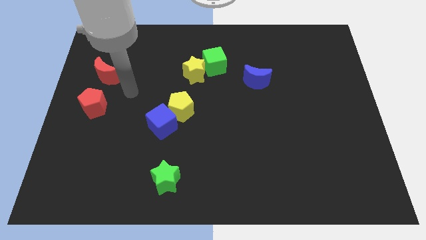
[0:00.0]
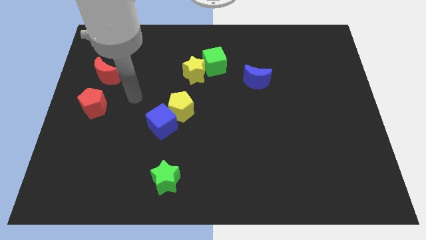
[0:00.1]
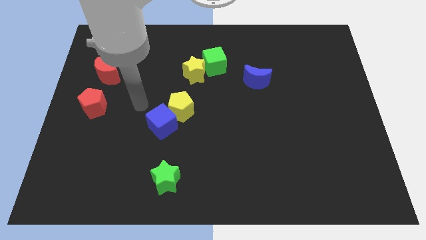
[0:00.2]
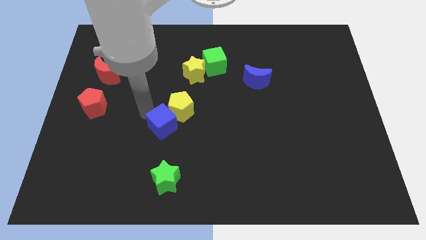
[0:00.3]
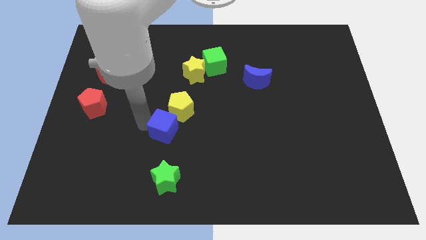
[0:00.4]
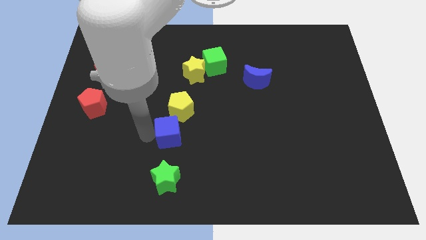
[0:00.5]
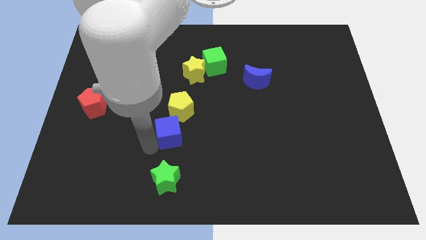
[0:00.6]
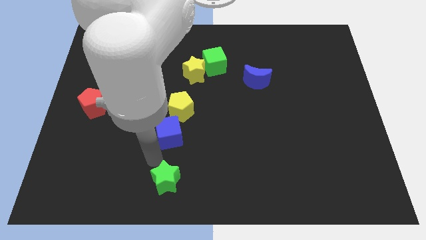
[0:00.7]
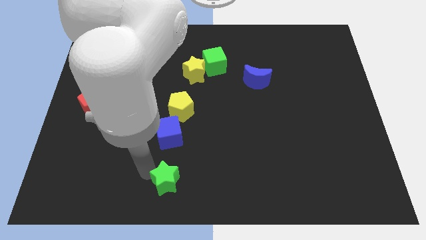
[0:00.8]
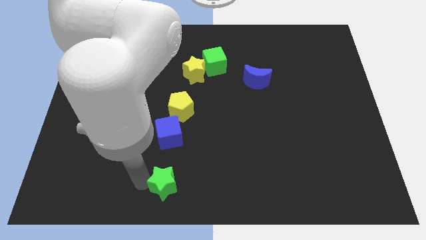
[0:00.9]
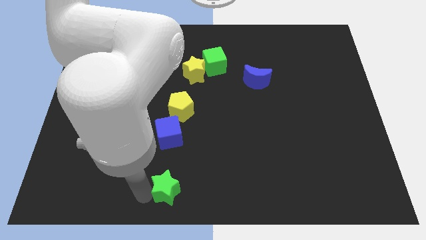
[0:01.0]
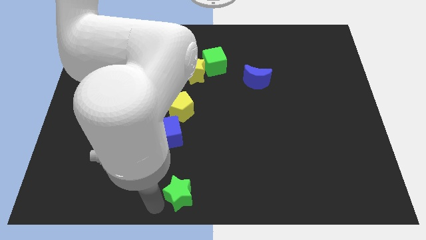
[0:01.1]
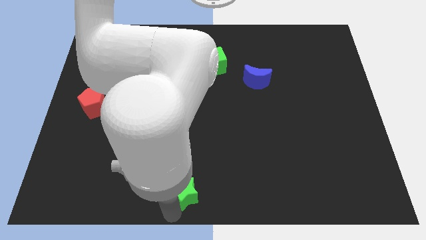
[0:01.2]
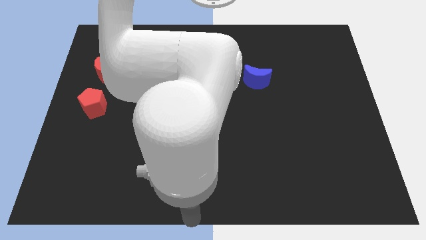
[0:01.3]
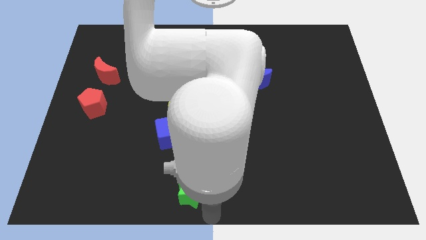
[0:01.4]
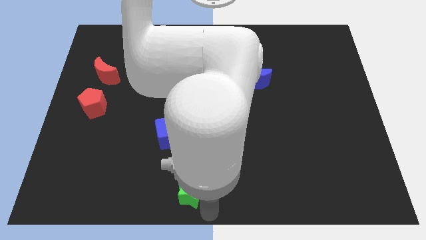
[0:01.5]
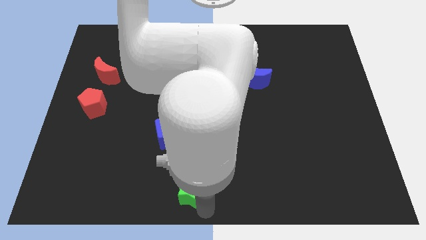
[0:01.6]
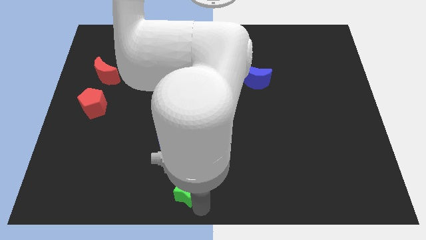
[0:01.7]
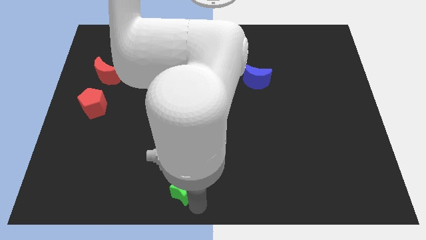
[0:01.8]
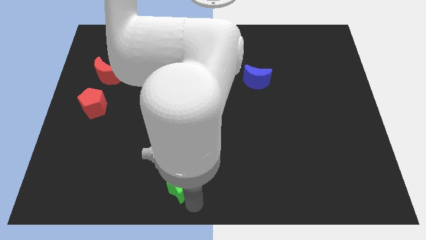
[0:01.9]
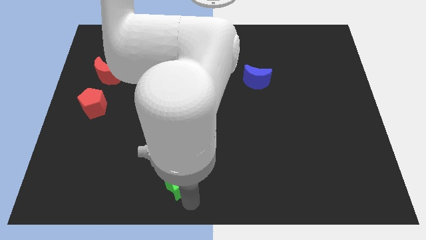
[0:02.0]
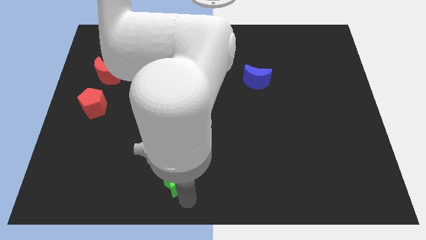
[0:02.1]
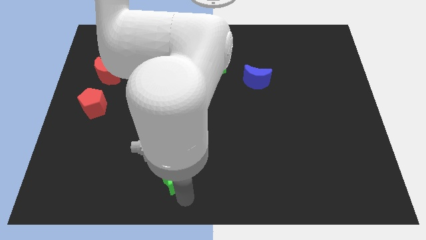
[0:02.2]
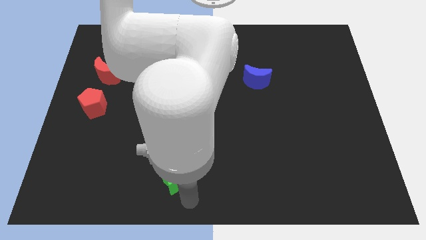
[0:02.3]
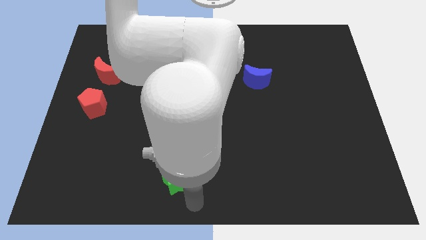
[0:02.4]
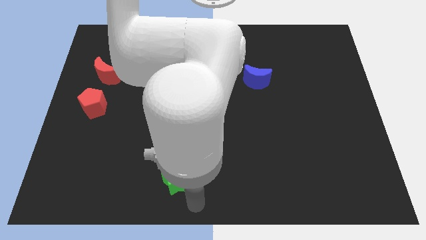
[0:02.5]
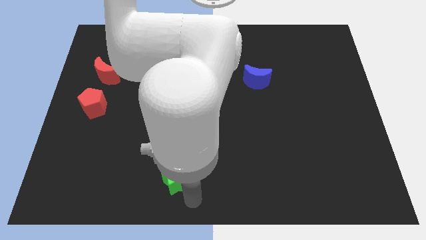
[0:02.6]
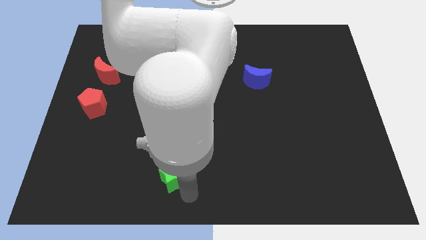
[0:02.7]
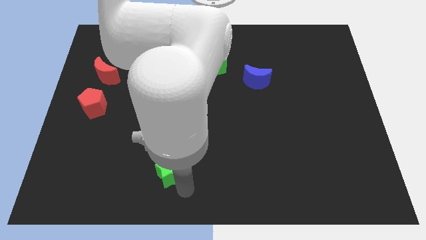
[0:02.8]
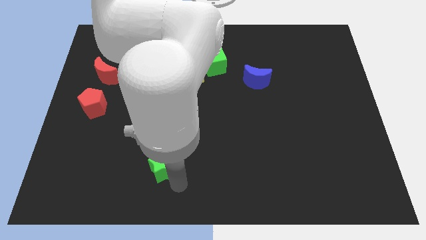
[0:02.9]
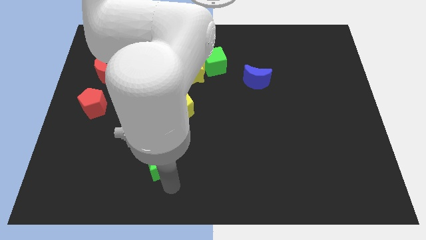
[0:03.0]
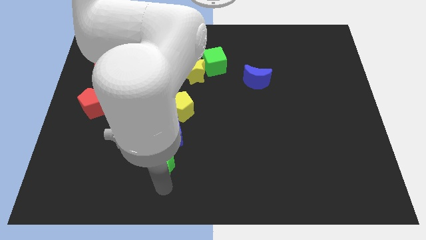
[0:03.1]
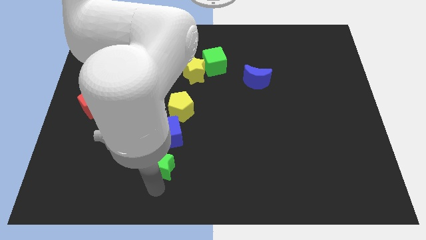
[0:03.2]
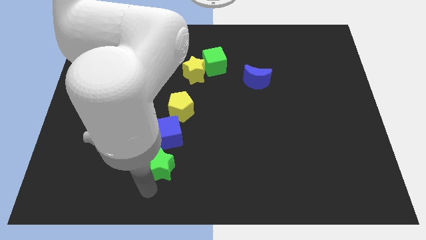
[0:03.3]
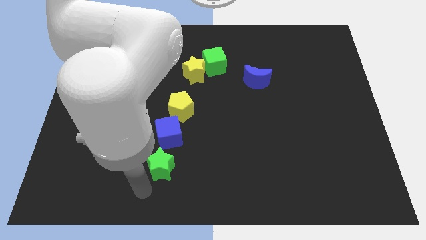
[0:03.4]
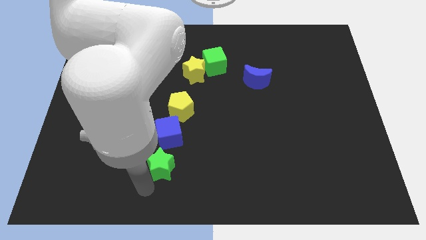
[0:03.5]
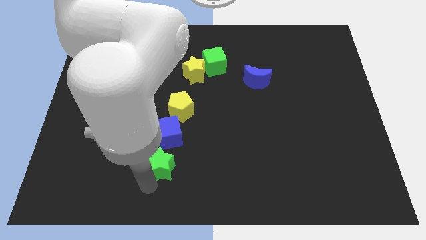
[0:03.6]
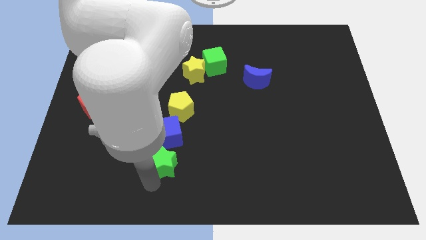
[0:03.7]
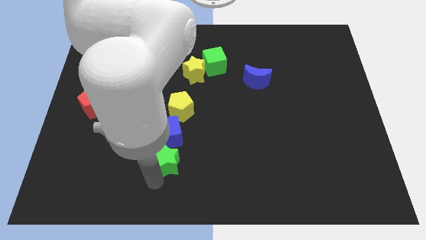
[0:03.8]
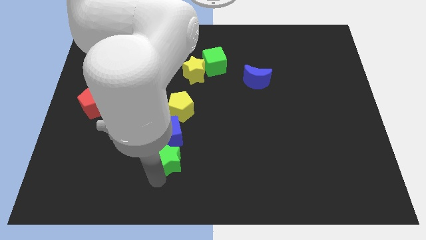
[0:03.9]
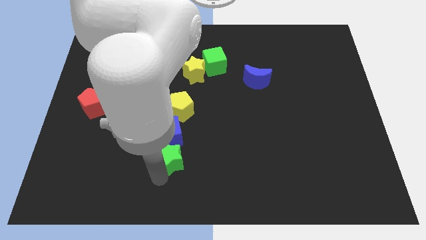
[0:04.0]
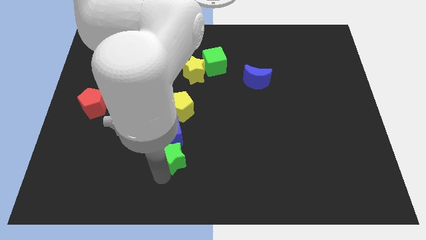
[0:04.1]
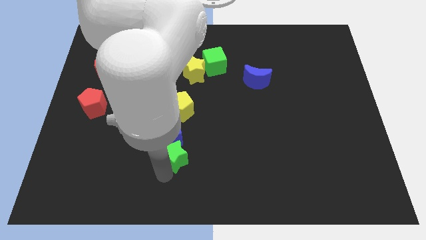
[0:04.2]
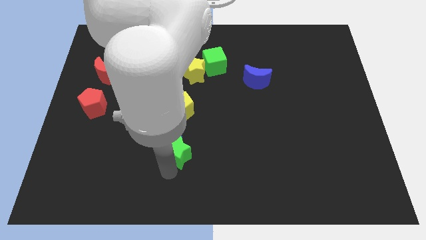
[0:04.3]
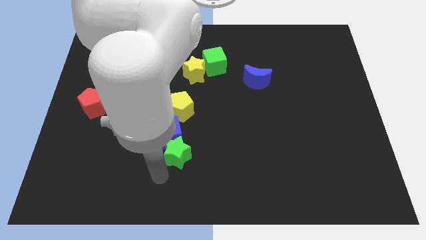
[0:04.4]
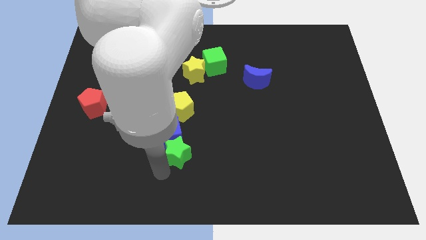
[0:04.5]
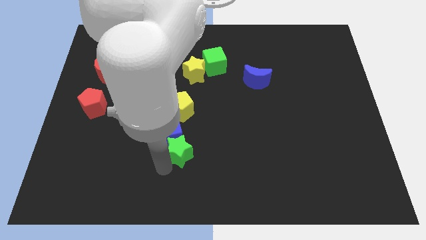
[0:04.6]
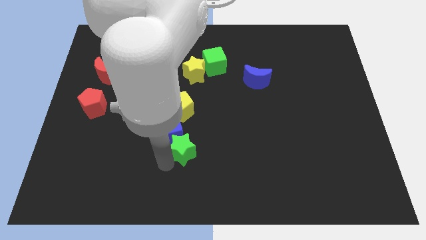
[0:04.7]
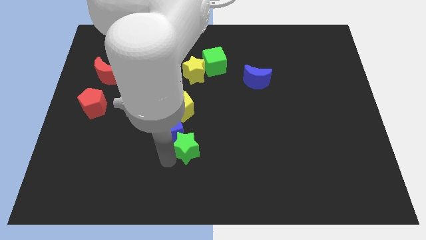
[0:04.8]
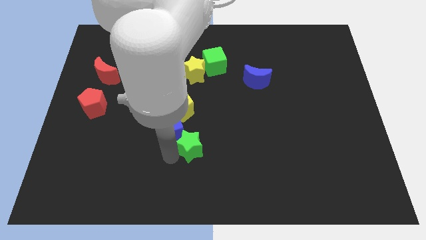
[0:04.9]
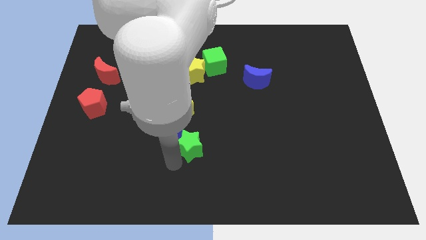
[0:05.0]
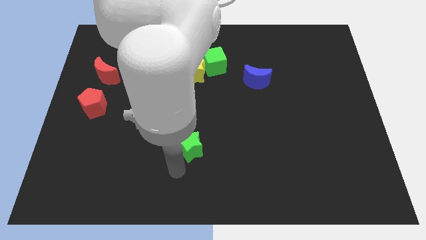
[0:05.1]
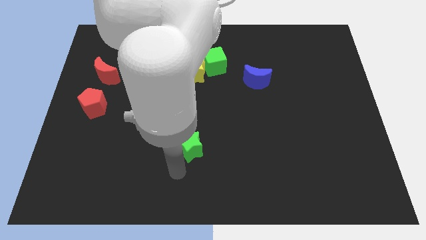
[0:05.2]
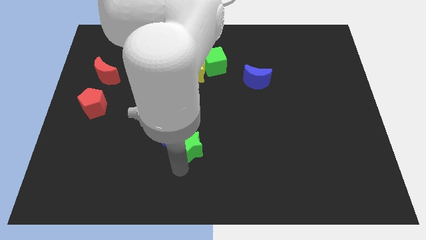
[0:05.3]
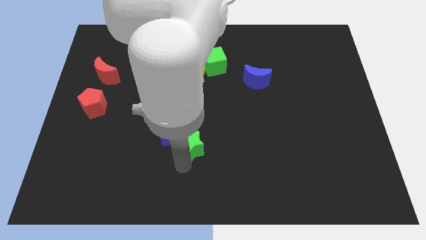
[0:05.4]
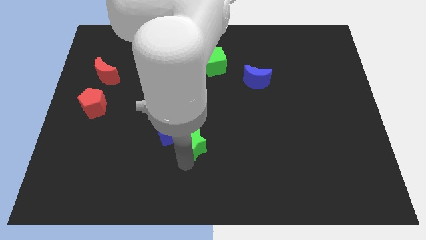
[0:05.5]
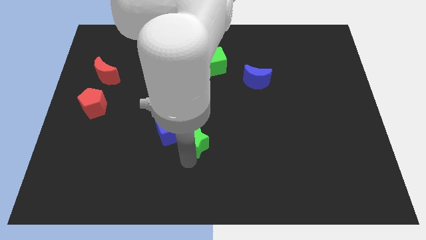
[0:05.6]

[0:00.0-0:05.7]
move the green star to the center of the board
